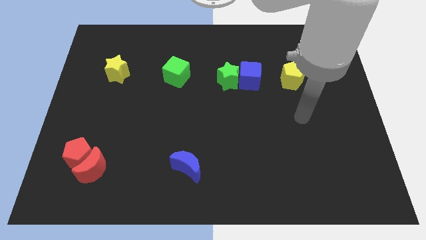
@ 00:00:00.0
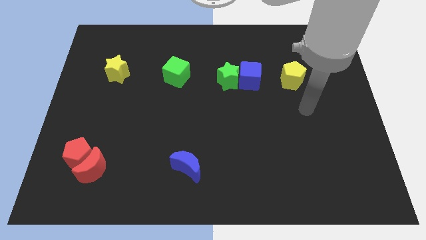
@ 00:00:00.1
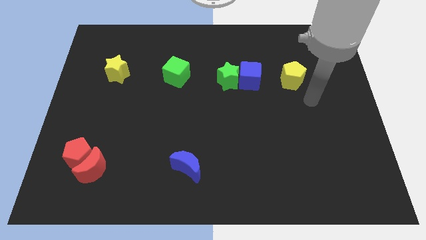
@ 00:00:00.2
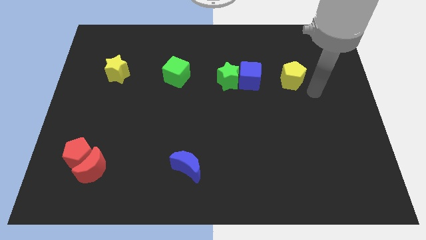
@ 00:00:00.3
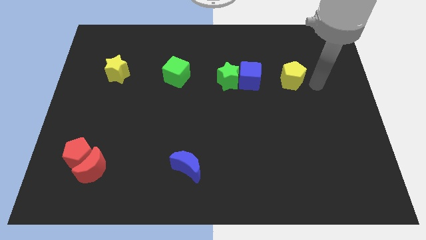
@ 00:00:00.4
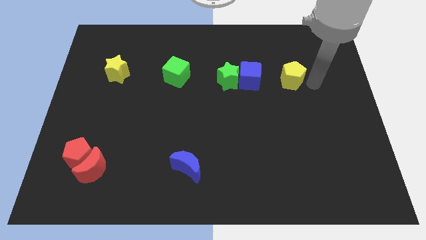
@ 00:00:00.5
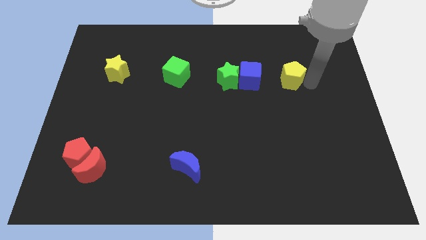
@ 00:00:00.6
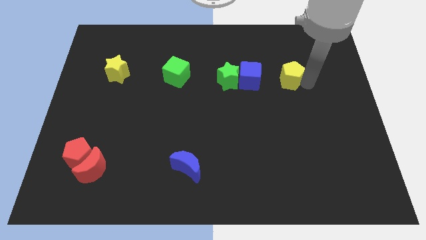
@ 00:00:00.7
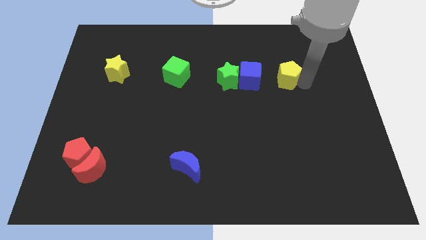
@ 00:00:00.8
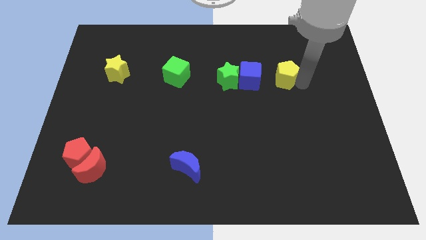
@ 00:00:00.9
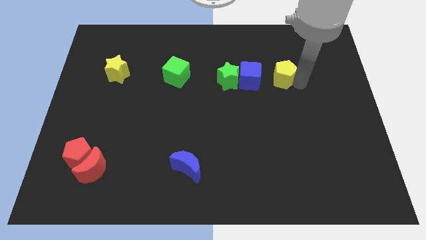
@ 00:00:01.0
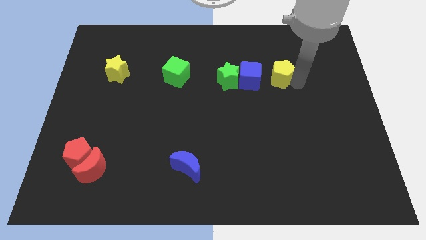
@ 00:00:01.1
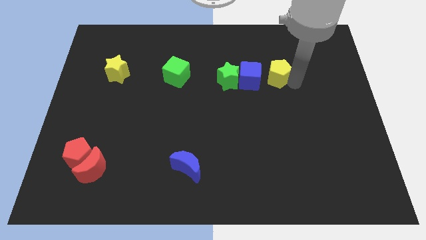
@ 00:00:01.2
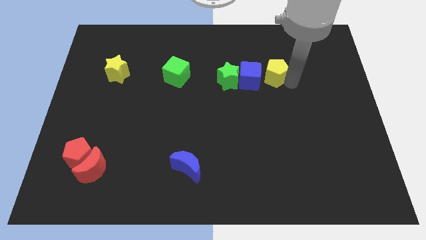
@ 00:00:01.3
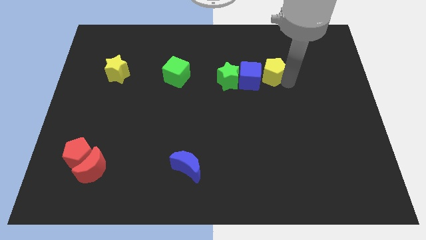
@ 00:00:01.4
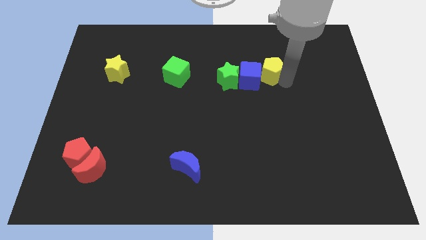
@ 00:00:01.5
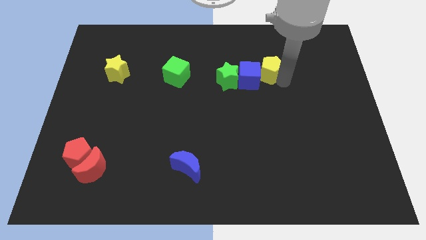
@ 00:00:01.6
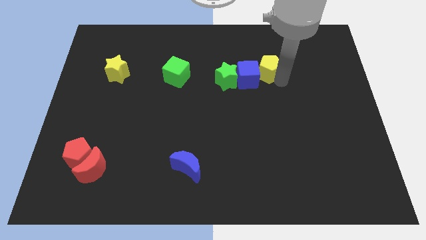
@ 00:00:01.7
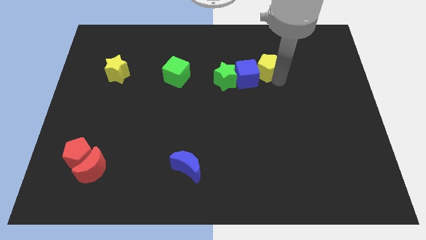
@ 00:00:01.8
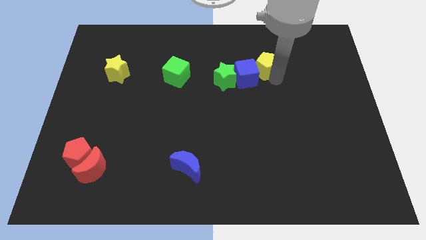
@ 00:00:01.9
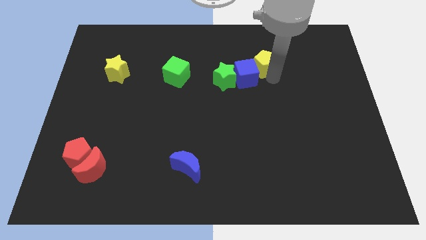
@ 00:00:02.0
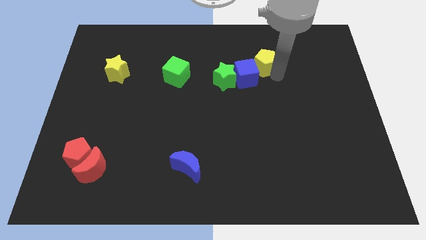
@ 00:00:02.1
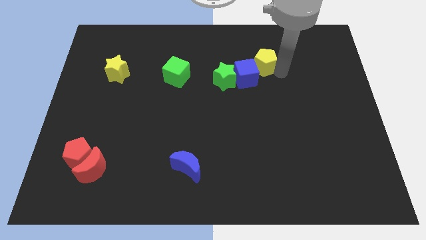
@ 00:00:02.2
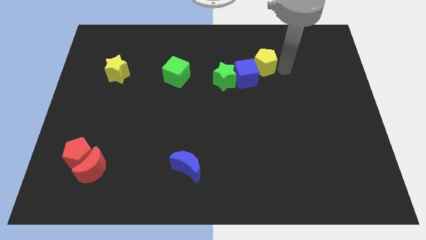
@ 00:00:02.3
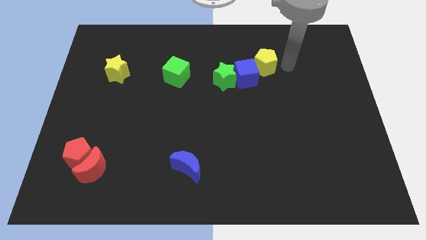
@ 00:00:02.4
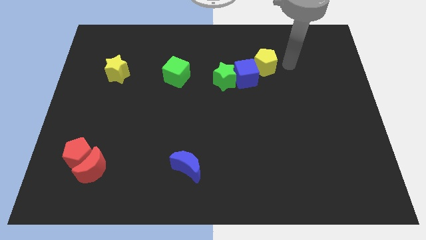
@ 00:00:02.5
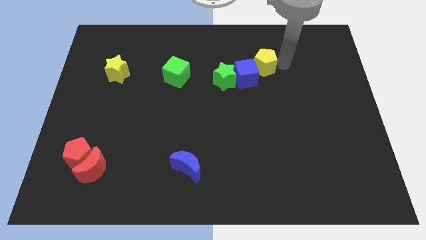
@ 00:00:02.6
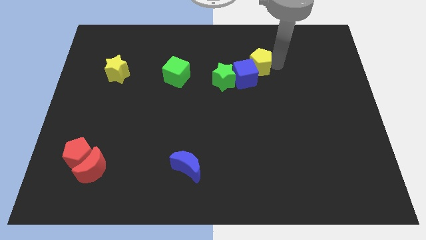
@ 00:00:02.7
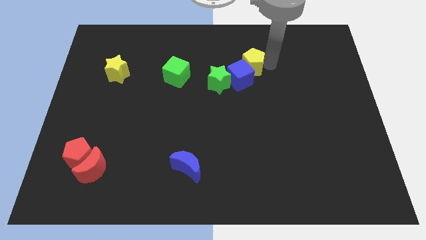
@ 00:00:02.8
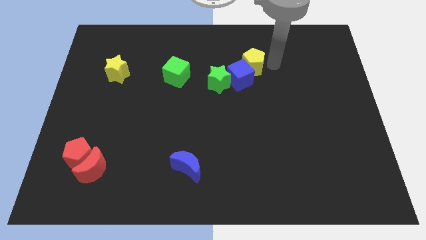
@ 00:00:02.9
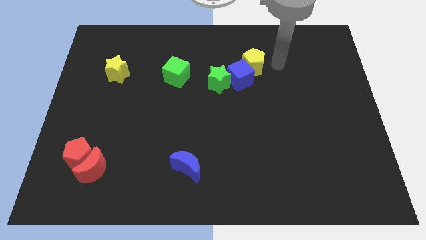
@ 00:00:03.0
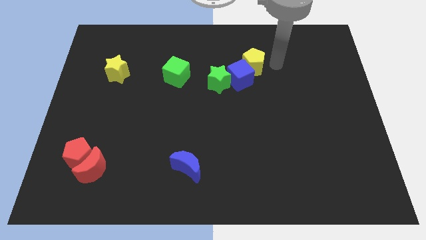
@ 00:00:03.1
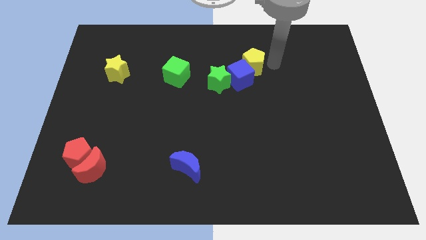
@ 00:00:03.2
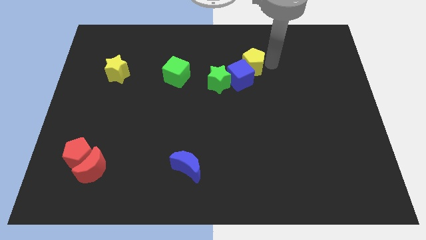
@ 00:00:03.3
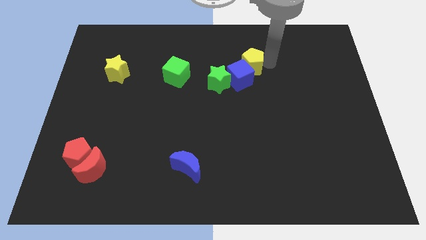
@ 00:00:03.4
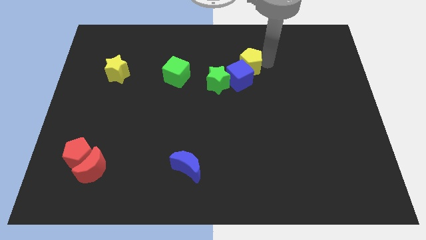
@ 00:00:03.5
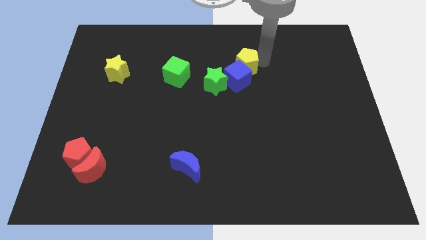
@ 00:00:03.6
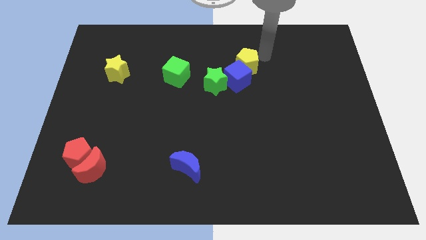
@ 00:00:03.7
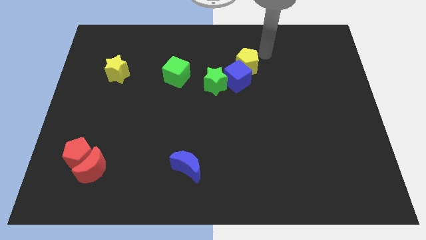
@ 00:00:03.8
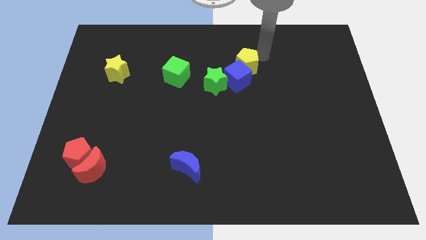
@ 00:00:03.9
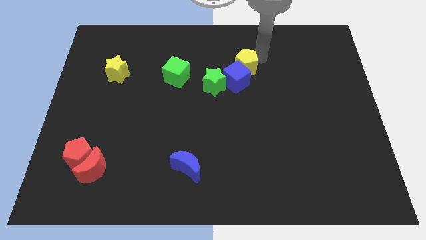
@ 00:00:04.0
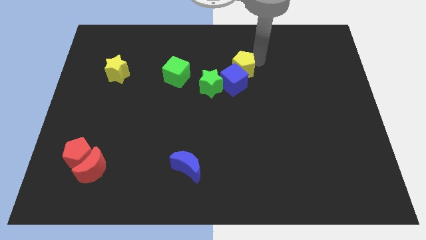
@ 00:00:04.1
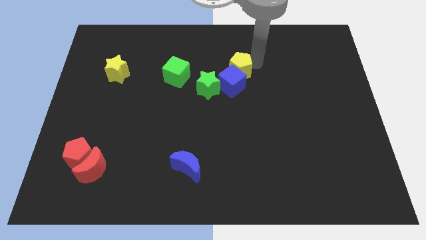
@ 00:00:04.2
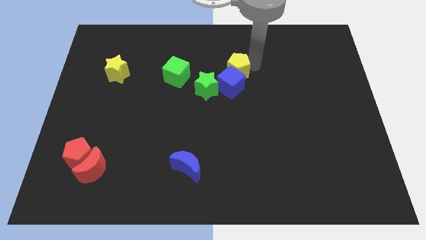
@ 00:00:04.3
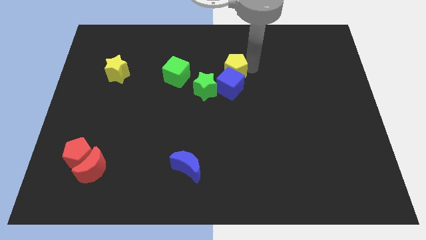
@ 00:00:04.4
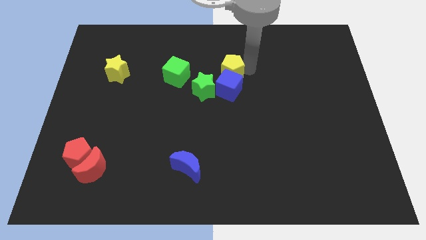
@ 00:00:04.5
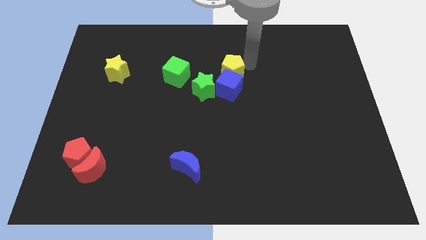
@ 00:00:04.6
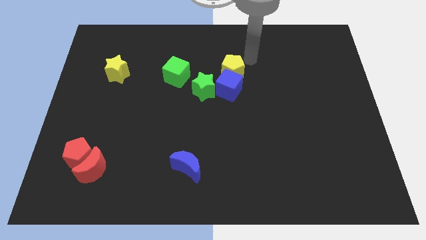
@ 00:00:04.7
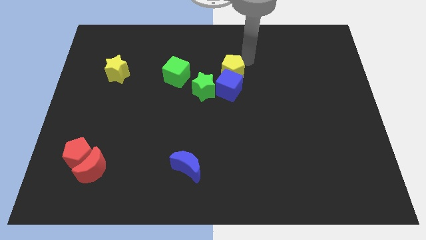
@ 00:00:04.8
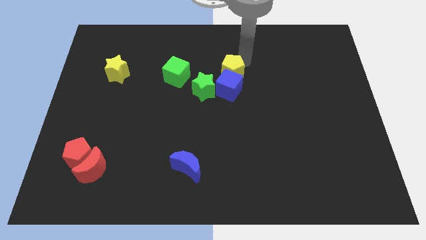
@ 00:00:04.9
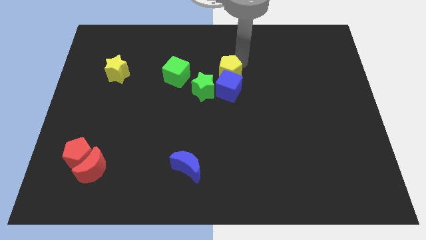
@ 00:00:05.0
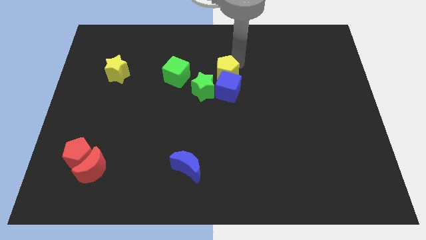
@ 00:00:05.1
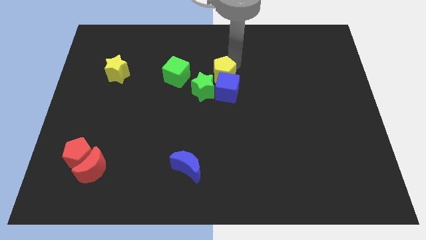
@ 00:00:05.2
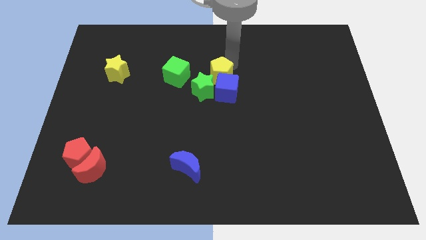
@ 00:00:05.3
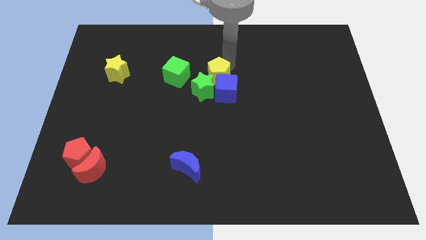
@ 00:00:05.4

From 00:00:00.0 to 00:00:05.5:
slide the yellow pentagon to the green star

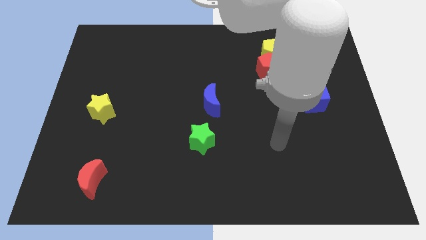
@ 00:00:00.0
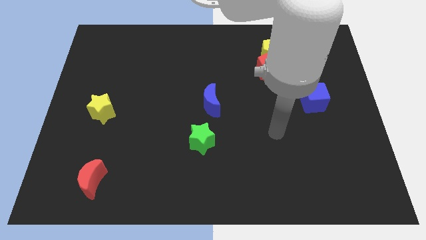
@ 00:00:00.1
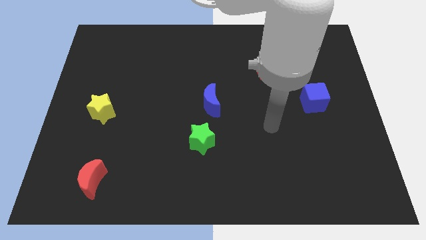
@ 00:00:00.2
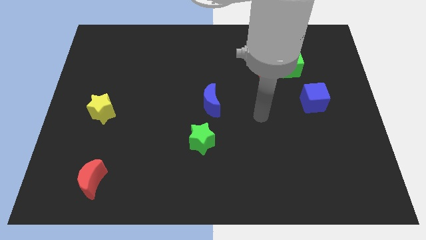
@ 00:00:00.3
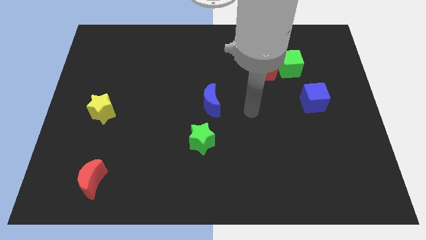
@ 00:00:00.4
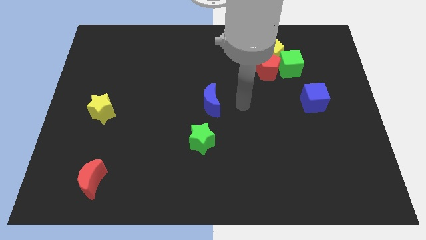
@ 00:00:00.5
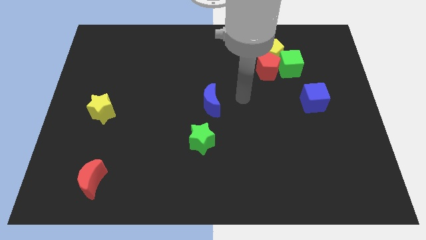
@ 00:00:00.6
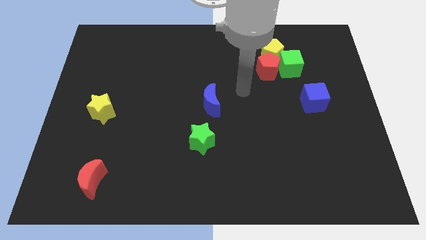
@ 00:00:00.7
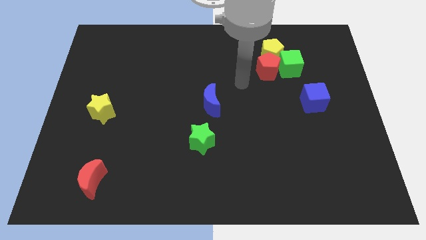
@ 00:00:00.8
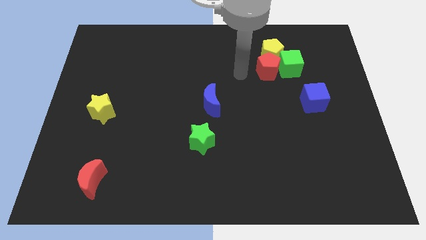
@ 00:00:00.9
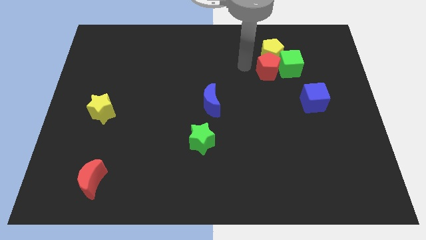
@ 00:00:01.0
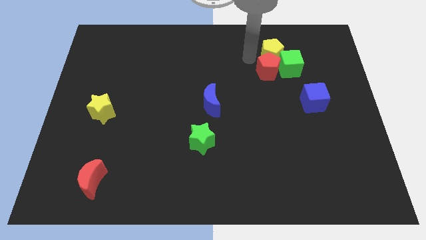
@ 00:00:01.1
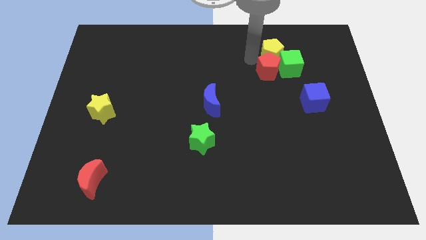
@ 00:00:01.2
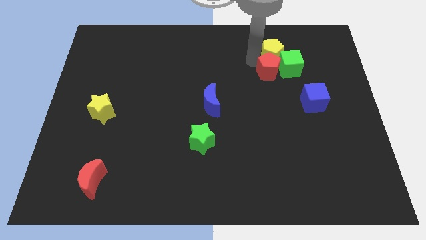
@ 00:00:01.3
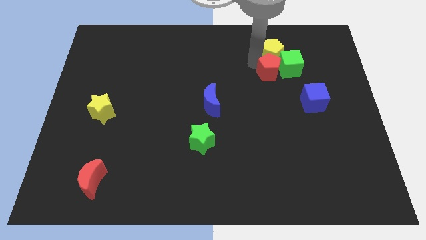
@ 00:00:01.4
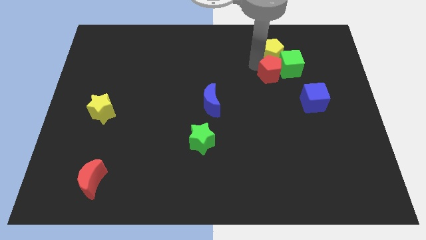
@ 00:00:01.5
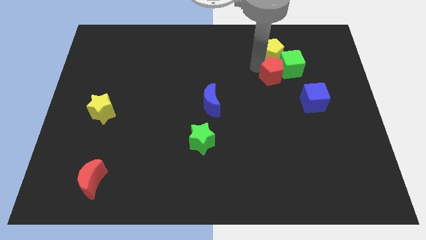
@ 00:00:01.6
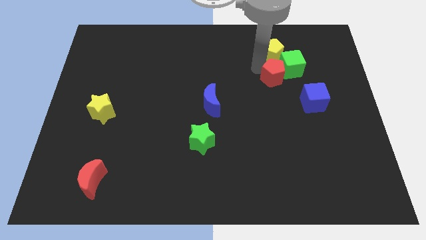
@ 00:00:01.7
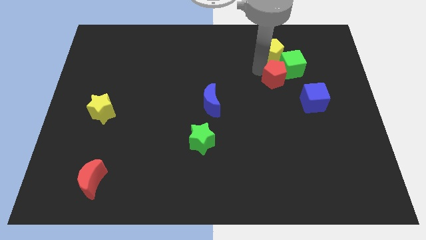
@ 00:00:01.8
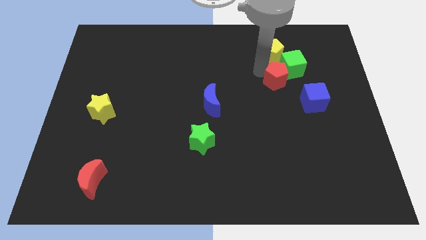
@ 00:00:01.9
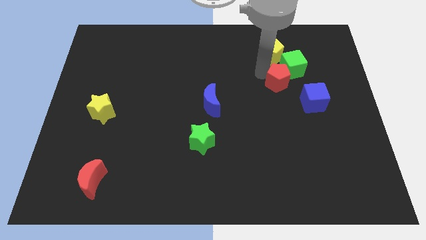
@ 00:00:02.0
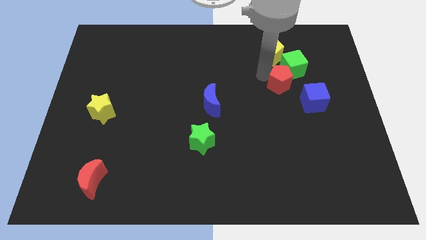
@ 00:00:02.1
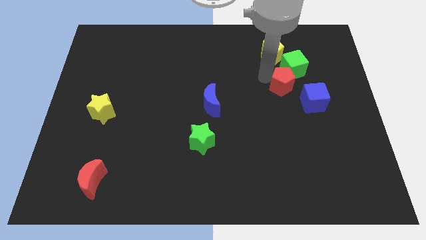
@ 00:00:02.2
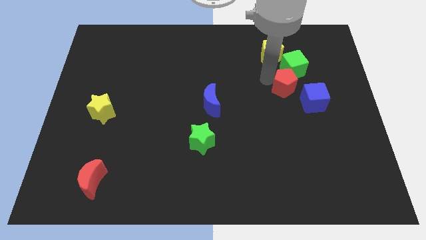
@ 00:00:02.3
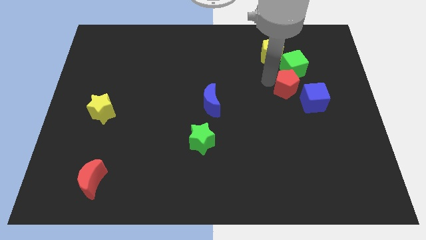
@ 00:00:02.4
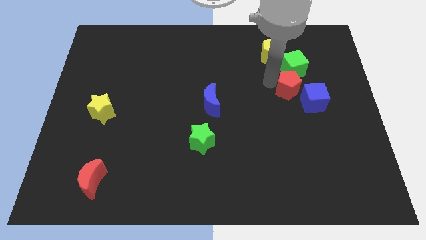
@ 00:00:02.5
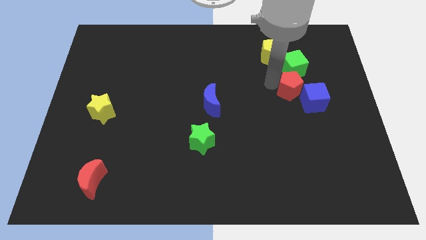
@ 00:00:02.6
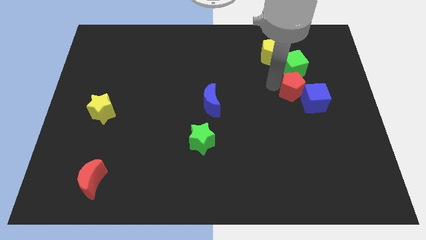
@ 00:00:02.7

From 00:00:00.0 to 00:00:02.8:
push the red pentagon to the blue cube
